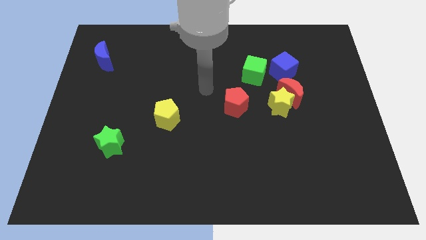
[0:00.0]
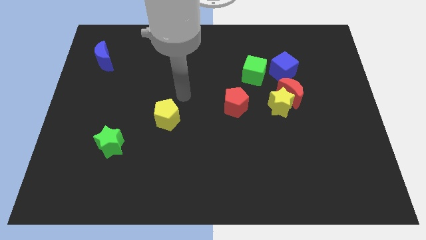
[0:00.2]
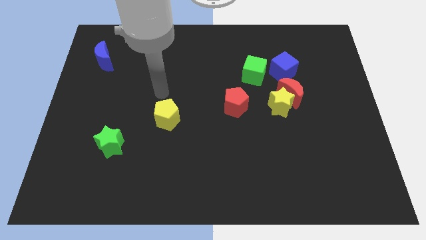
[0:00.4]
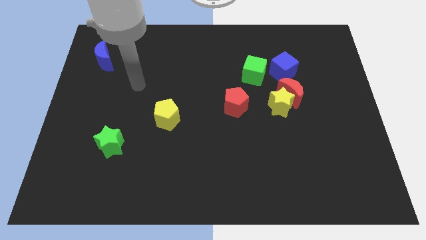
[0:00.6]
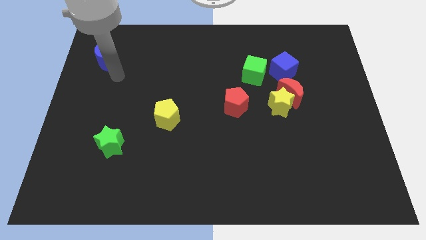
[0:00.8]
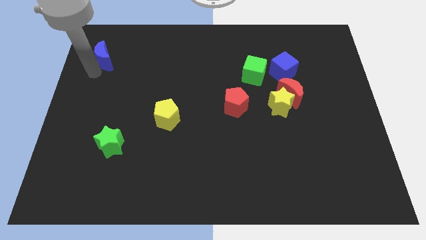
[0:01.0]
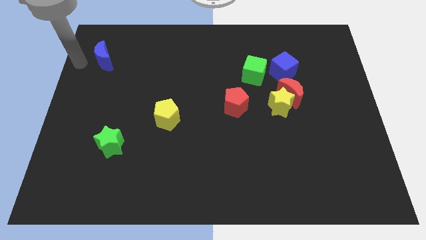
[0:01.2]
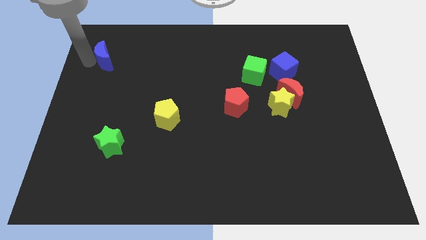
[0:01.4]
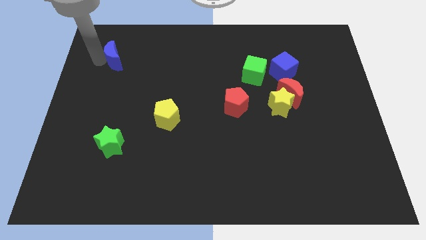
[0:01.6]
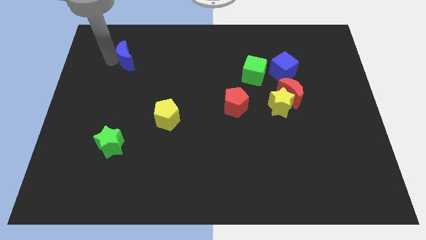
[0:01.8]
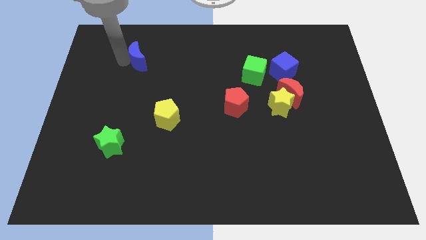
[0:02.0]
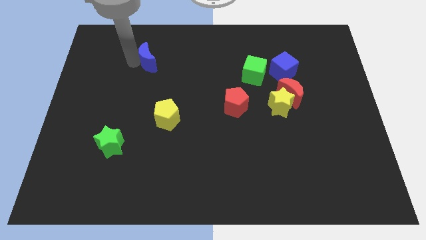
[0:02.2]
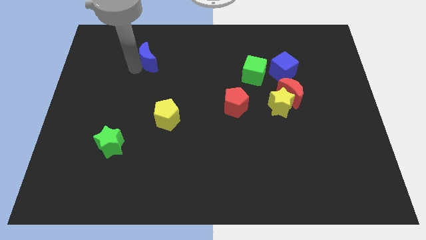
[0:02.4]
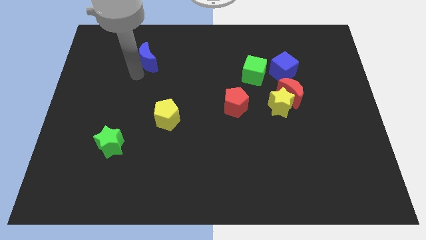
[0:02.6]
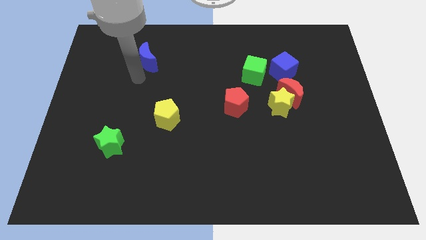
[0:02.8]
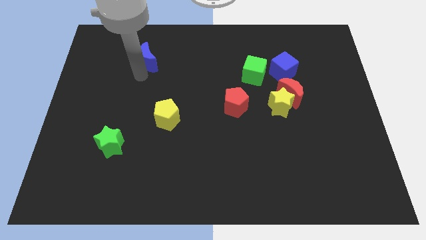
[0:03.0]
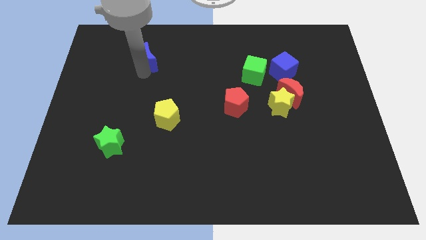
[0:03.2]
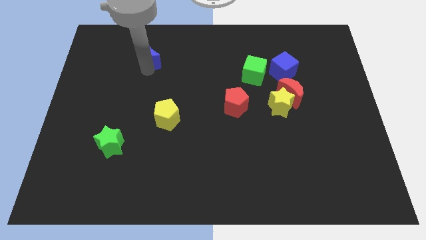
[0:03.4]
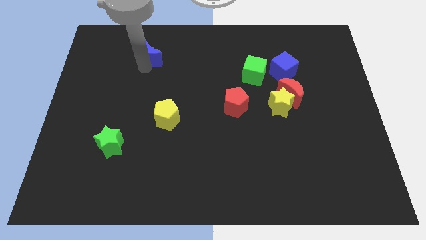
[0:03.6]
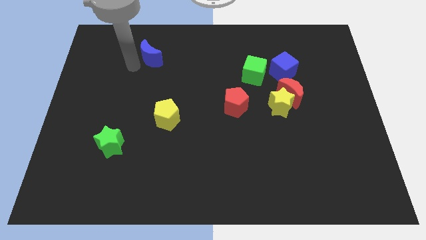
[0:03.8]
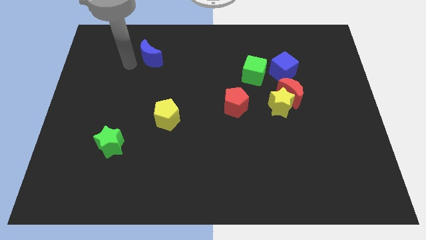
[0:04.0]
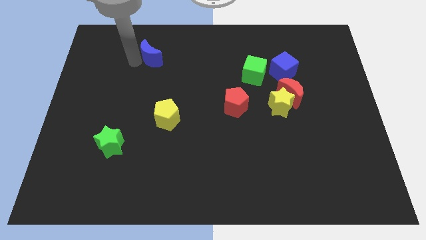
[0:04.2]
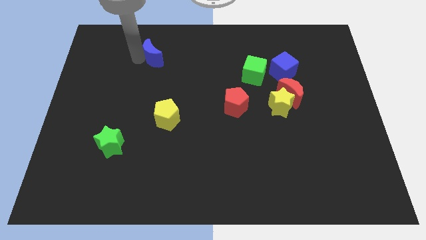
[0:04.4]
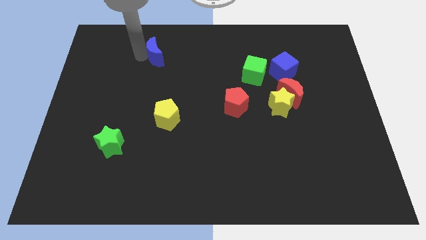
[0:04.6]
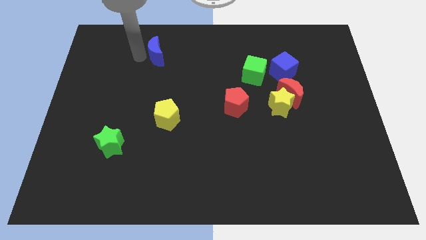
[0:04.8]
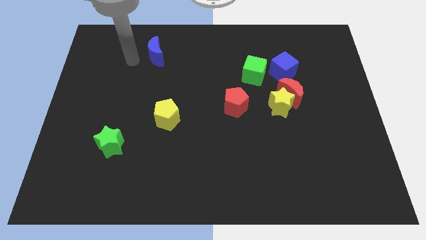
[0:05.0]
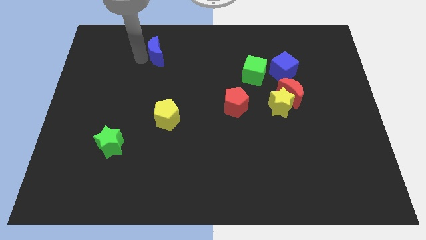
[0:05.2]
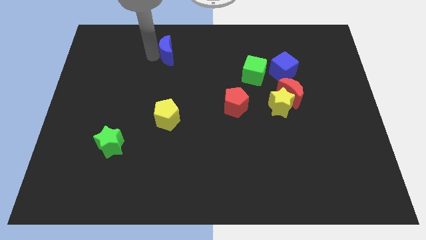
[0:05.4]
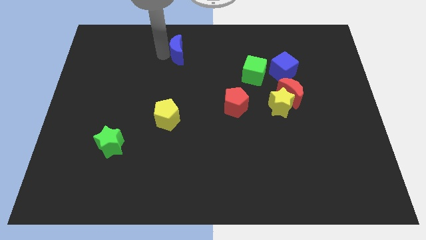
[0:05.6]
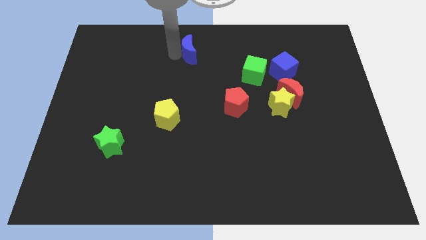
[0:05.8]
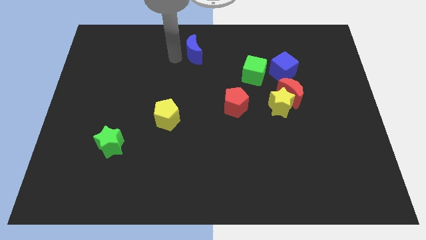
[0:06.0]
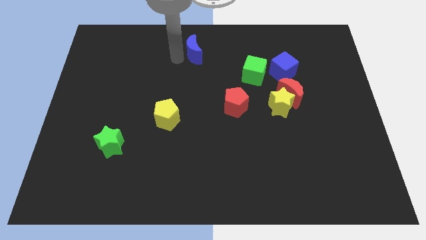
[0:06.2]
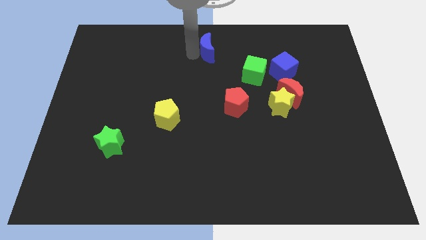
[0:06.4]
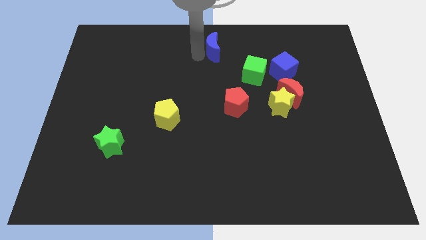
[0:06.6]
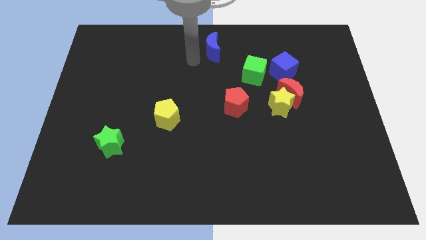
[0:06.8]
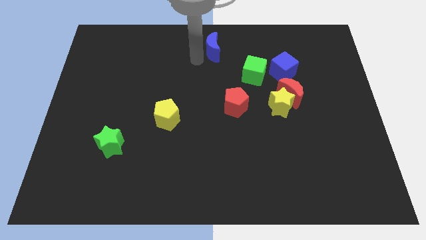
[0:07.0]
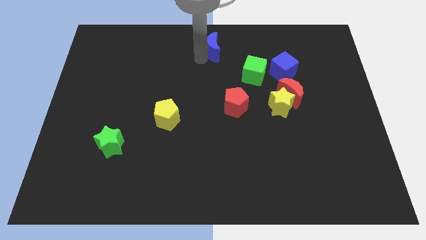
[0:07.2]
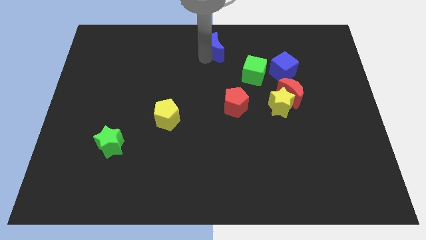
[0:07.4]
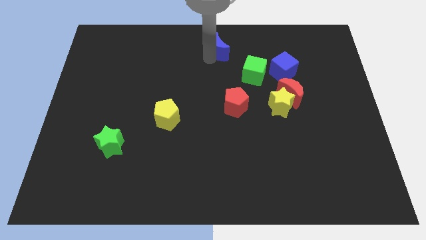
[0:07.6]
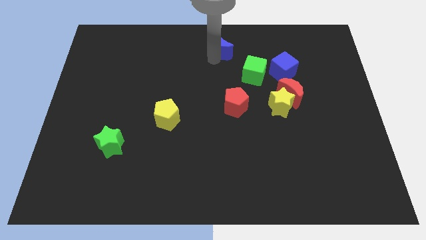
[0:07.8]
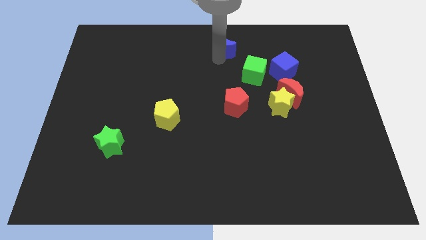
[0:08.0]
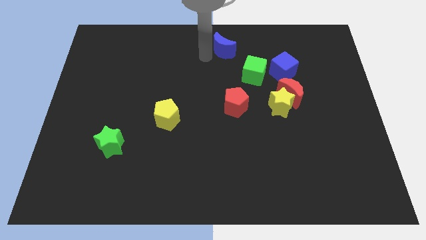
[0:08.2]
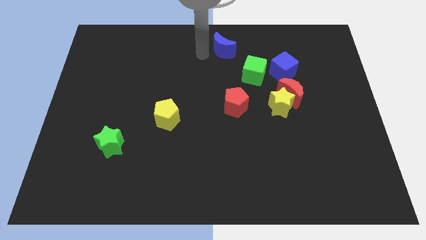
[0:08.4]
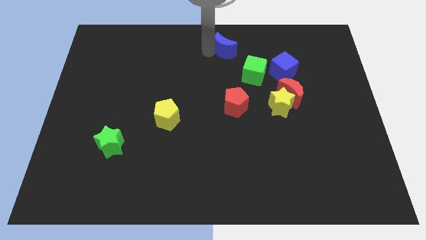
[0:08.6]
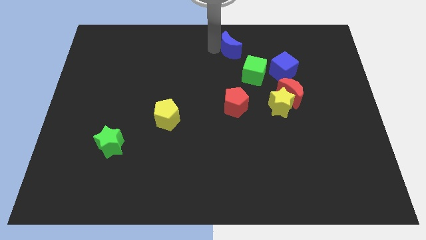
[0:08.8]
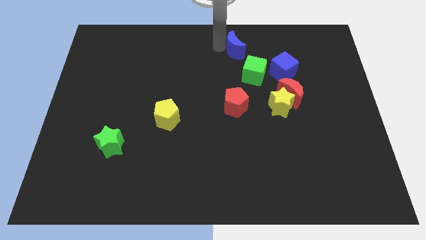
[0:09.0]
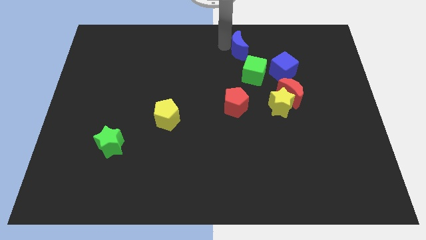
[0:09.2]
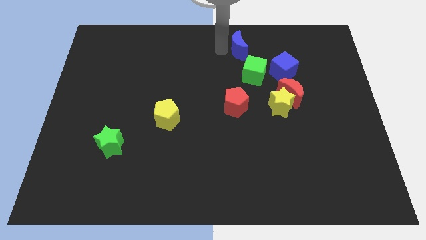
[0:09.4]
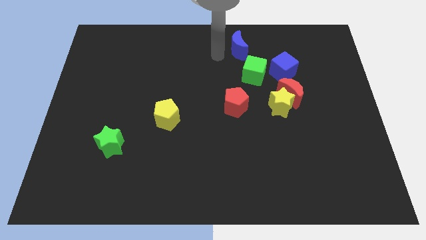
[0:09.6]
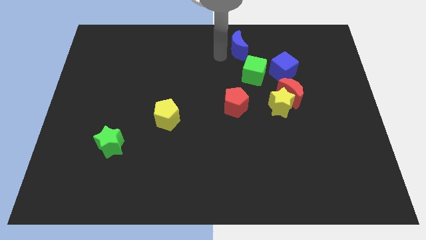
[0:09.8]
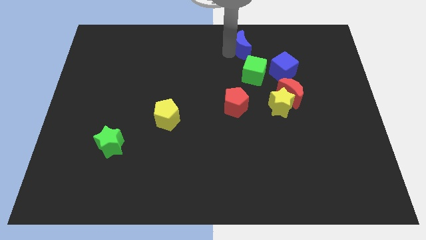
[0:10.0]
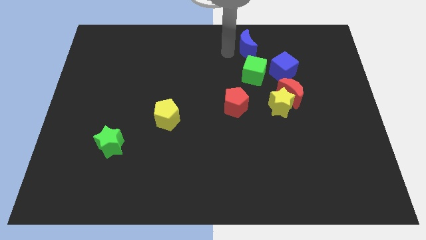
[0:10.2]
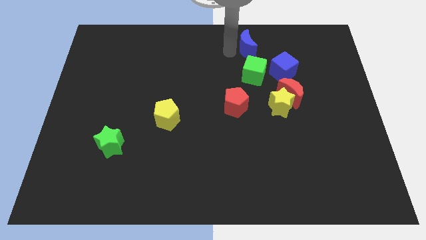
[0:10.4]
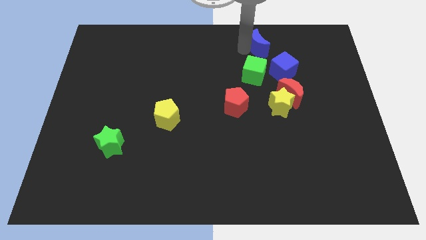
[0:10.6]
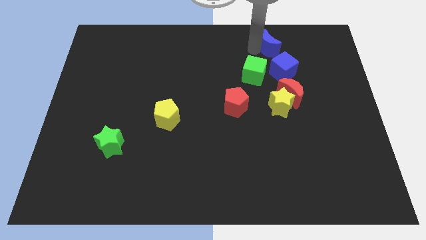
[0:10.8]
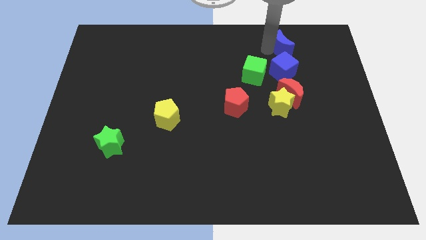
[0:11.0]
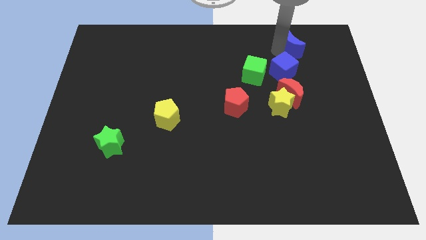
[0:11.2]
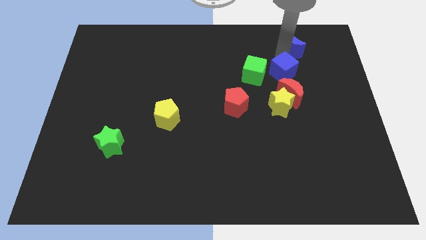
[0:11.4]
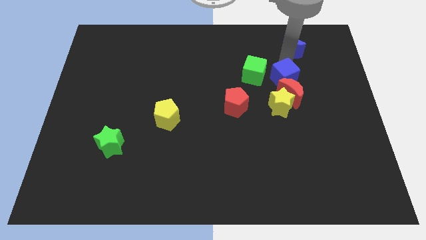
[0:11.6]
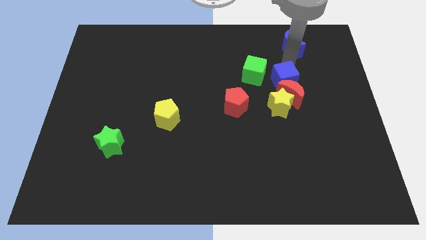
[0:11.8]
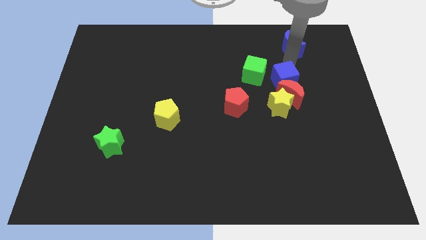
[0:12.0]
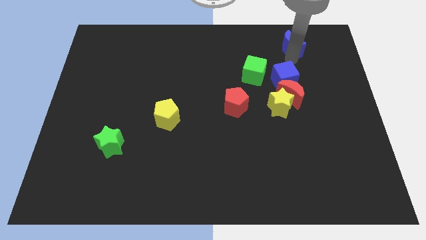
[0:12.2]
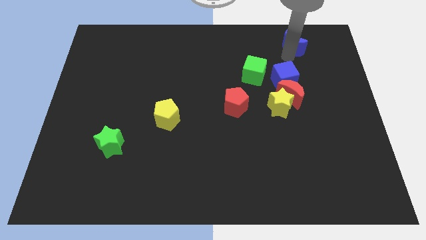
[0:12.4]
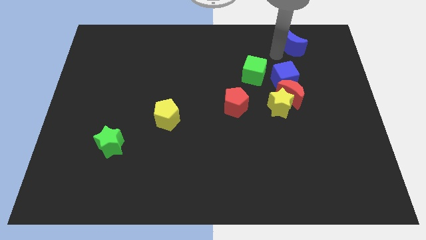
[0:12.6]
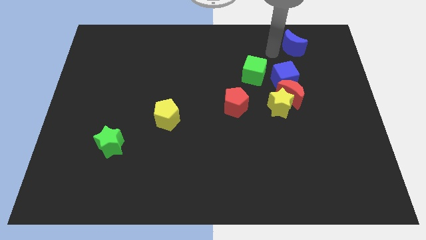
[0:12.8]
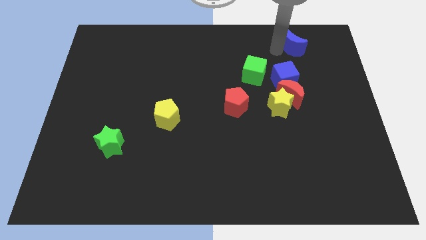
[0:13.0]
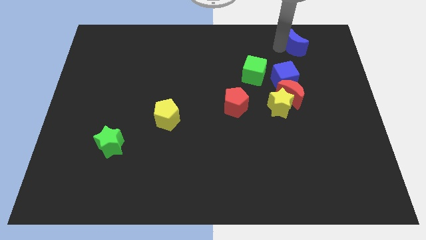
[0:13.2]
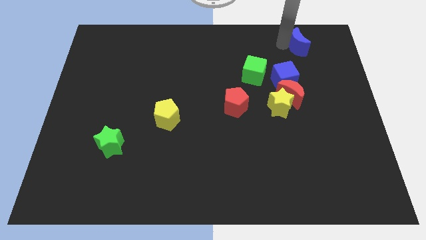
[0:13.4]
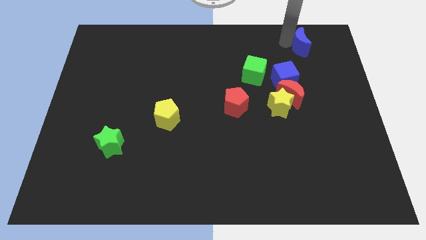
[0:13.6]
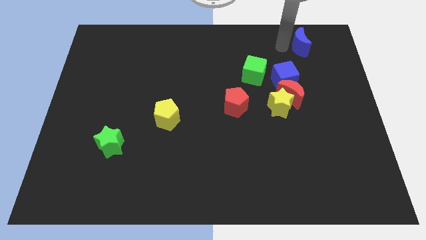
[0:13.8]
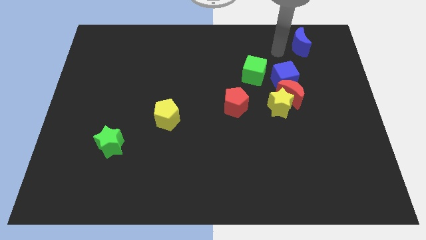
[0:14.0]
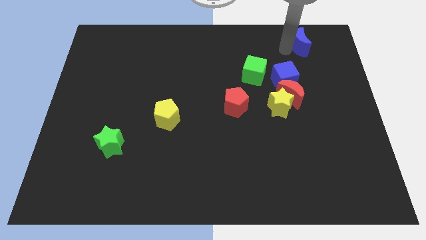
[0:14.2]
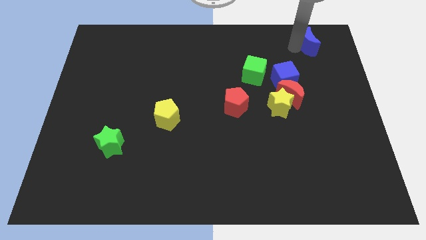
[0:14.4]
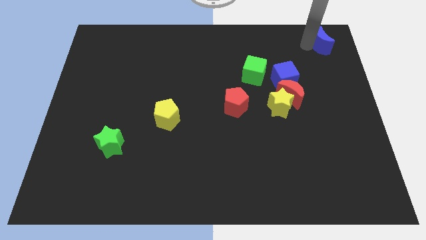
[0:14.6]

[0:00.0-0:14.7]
slide the blue moon to the top right corner
